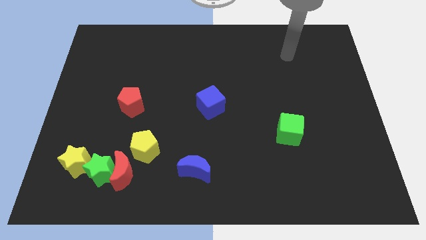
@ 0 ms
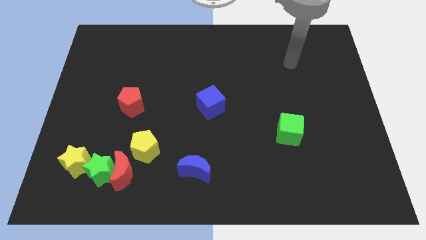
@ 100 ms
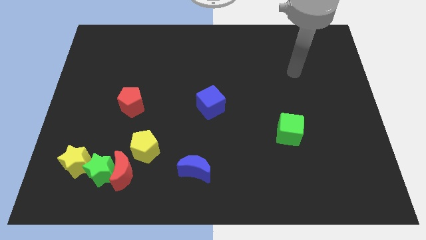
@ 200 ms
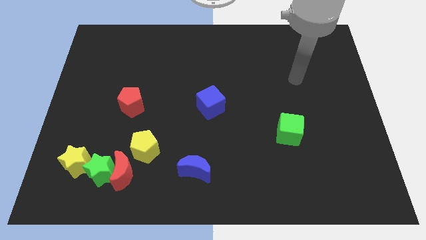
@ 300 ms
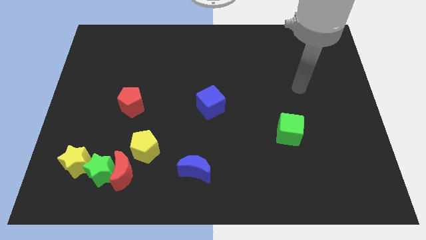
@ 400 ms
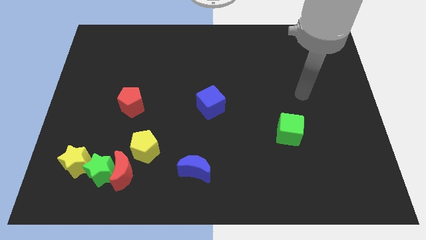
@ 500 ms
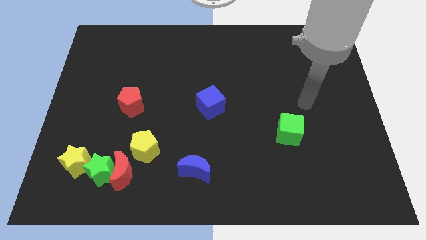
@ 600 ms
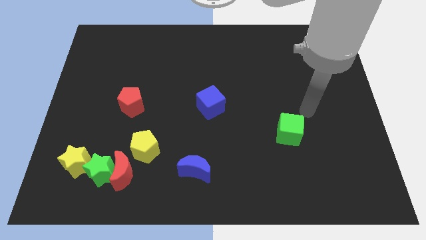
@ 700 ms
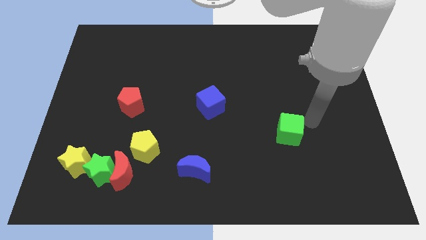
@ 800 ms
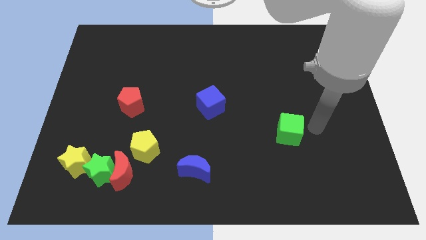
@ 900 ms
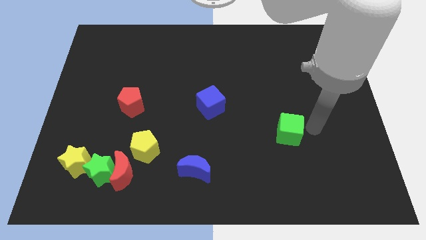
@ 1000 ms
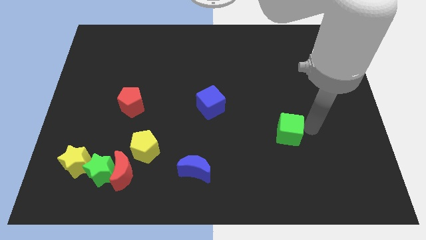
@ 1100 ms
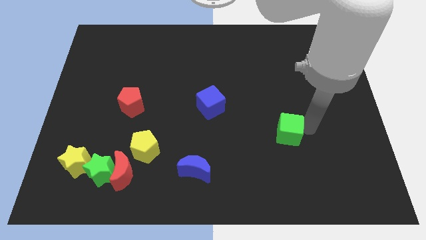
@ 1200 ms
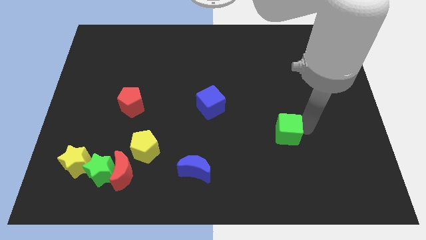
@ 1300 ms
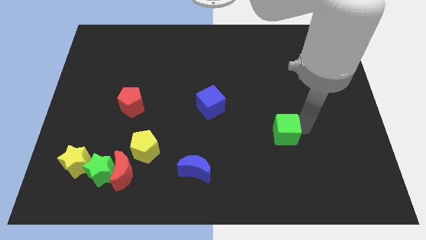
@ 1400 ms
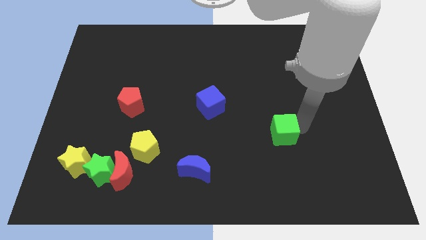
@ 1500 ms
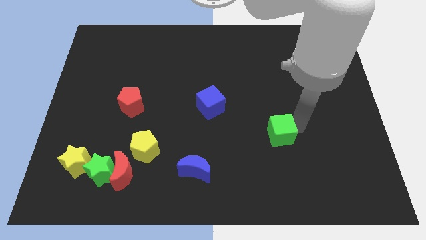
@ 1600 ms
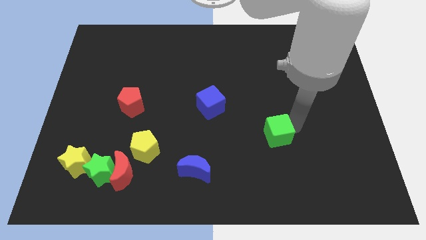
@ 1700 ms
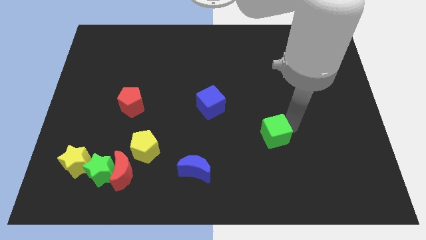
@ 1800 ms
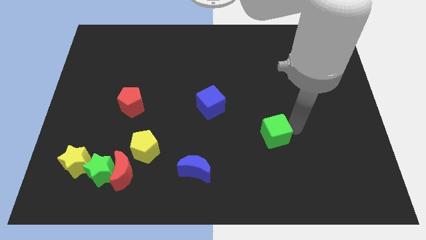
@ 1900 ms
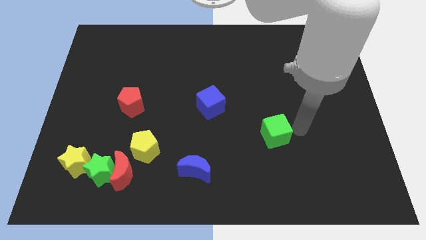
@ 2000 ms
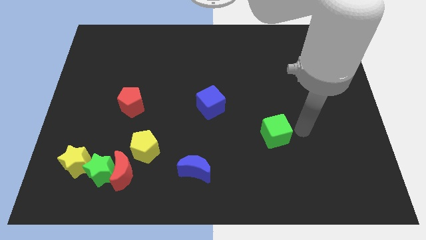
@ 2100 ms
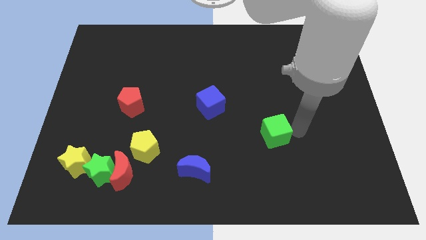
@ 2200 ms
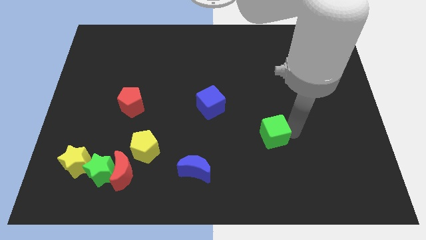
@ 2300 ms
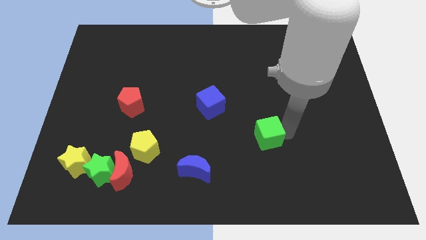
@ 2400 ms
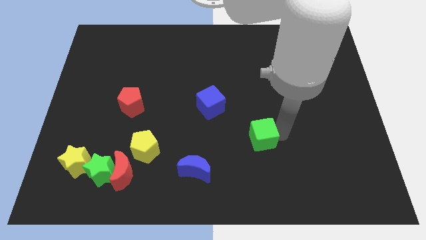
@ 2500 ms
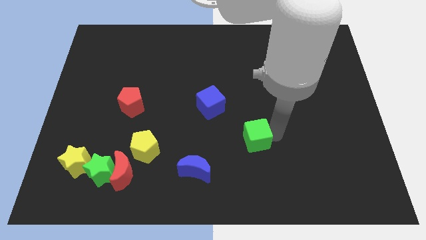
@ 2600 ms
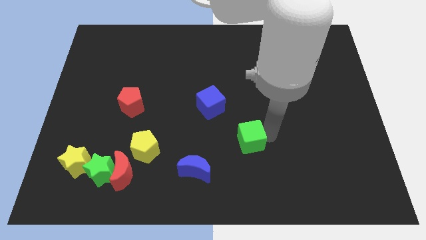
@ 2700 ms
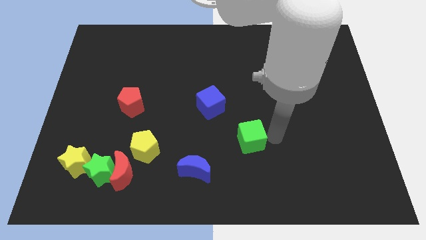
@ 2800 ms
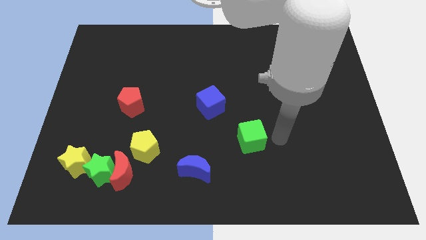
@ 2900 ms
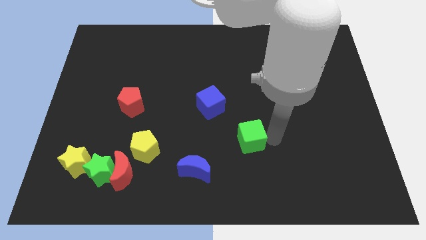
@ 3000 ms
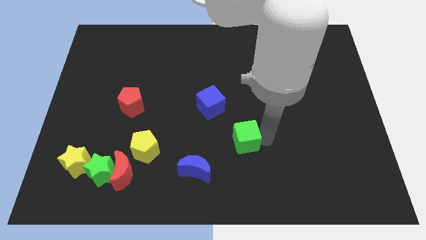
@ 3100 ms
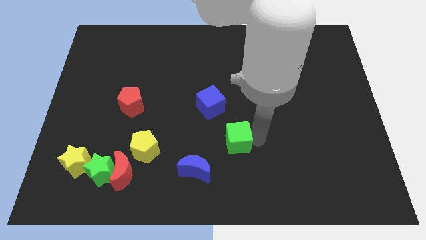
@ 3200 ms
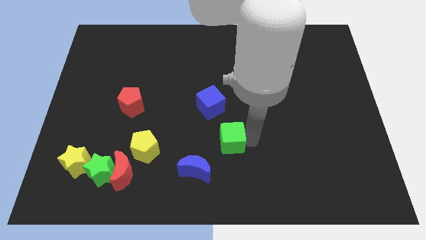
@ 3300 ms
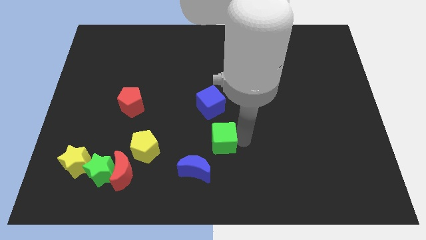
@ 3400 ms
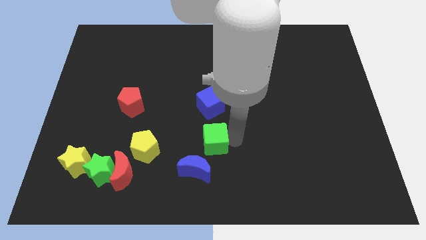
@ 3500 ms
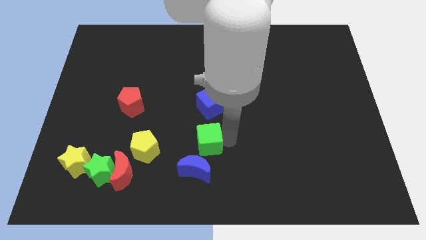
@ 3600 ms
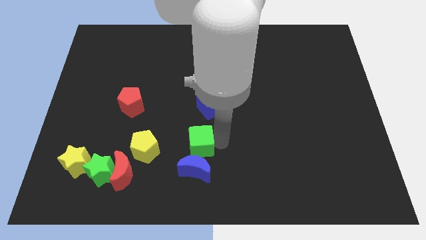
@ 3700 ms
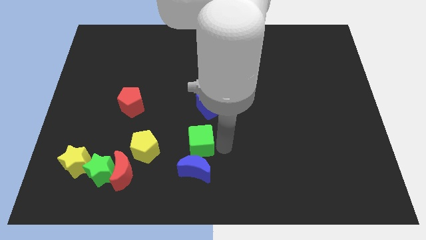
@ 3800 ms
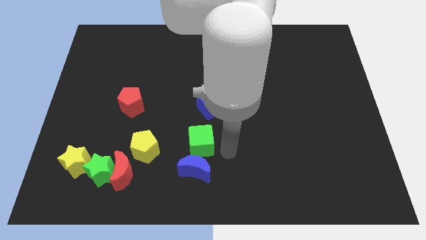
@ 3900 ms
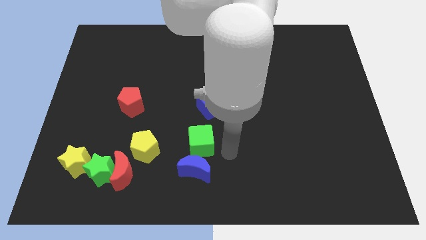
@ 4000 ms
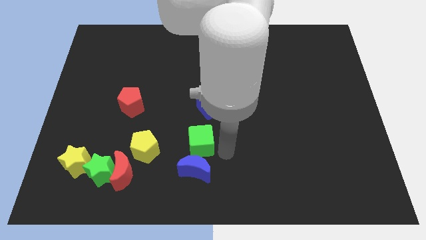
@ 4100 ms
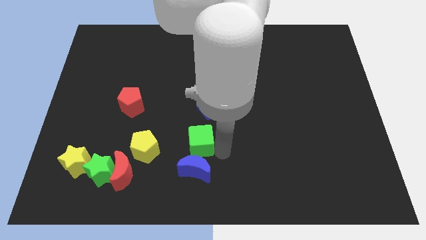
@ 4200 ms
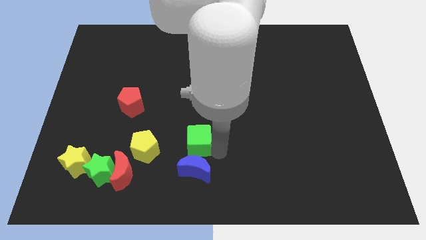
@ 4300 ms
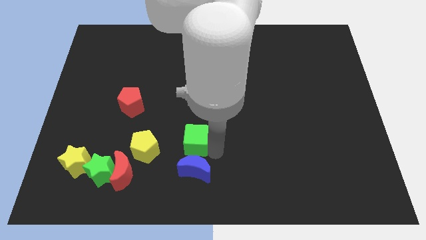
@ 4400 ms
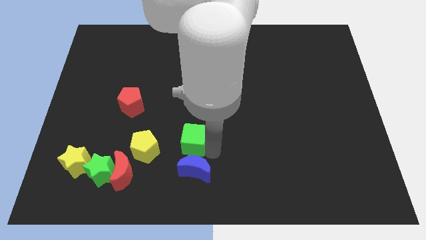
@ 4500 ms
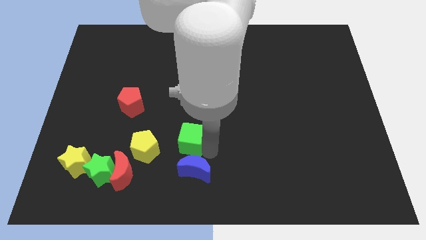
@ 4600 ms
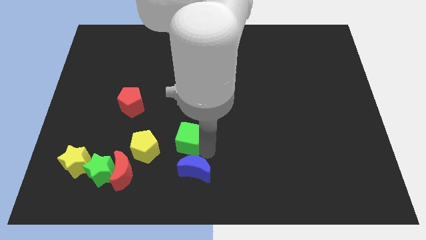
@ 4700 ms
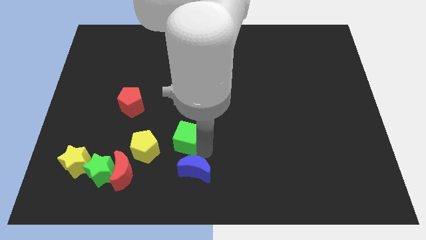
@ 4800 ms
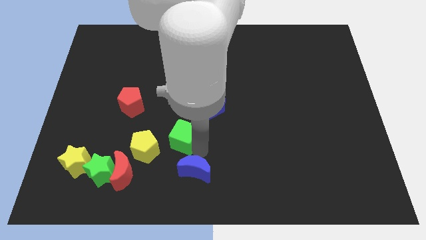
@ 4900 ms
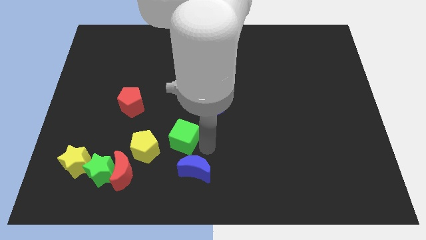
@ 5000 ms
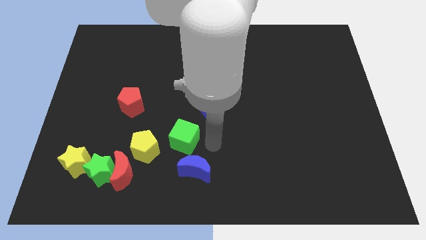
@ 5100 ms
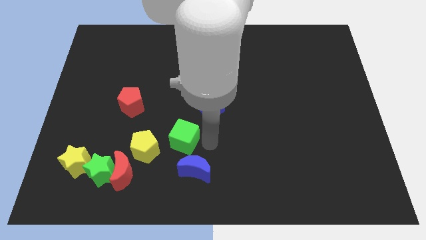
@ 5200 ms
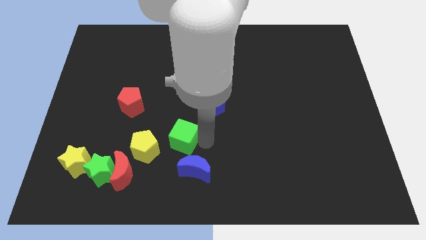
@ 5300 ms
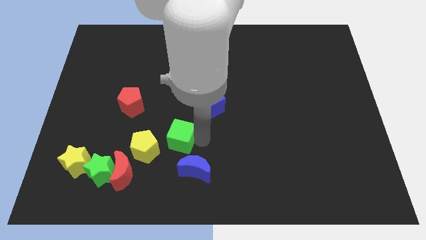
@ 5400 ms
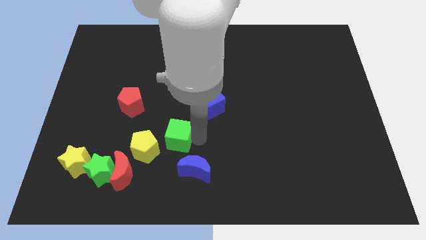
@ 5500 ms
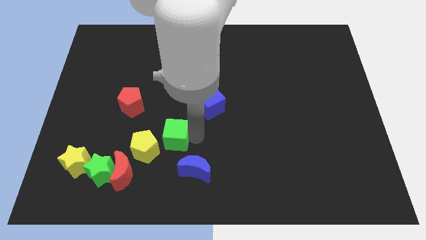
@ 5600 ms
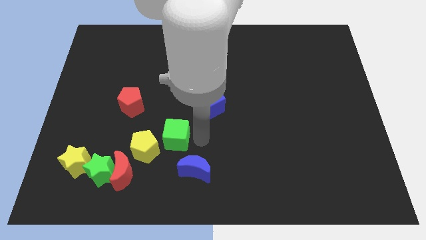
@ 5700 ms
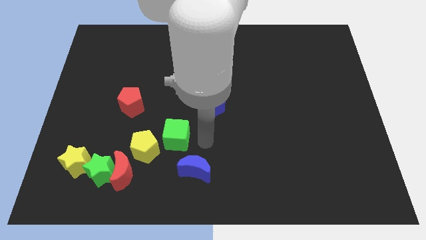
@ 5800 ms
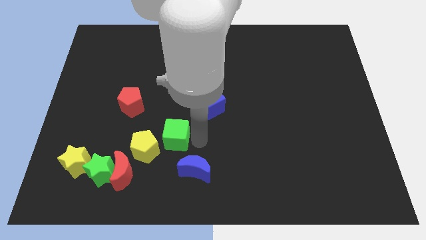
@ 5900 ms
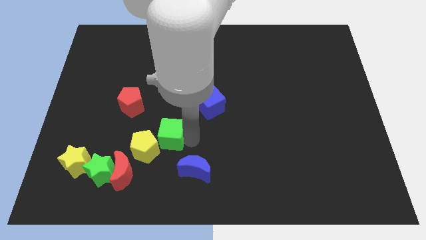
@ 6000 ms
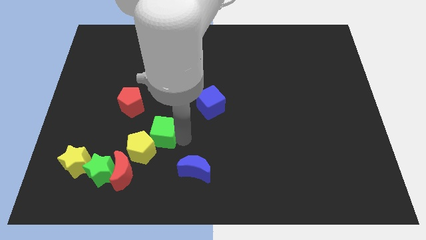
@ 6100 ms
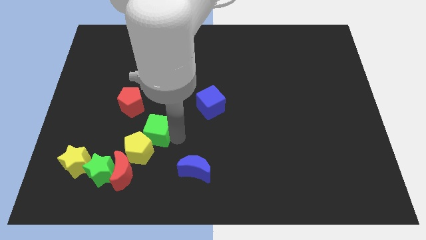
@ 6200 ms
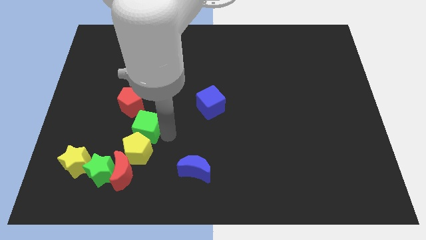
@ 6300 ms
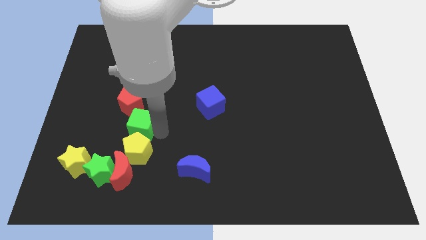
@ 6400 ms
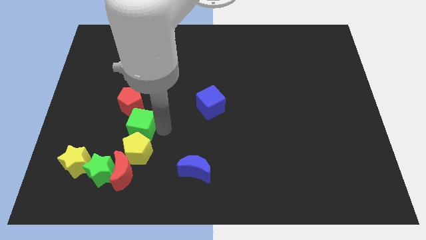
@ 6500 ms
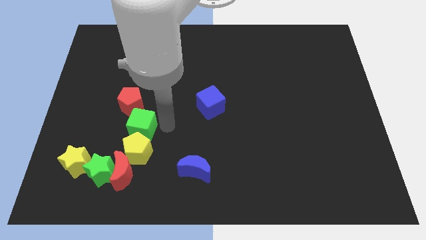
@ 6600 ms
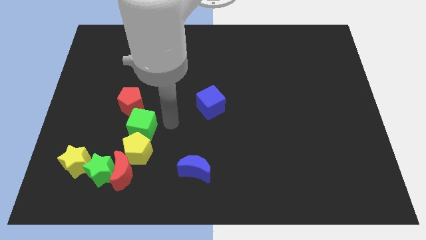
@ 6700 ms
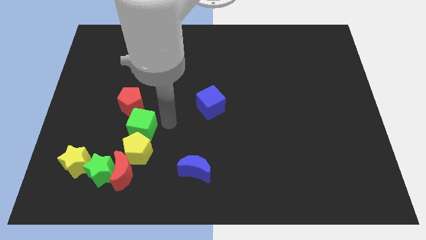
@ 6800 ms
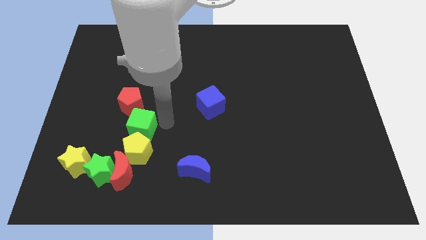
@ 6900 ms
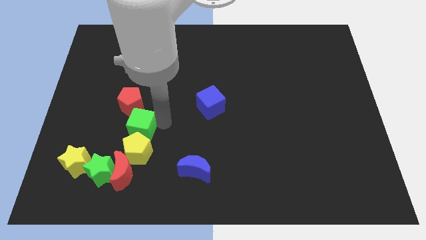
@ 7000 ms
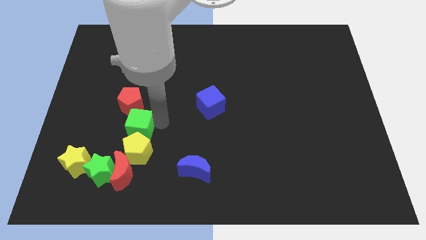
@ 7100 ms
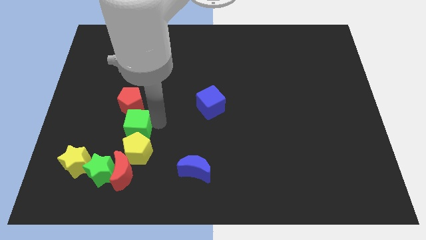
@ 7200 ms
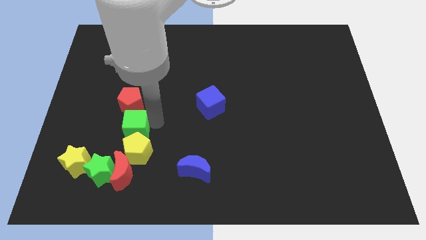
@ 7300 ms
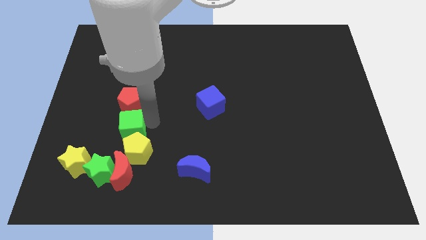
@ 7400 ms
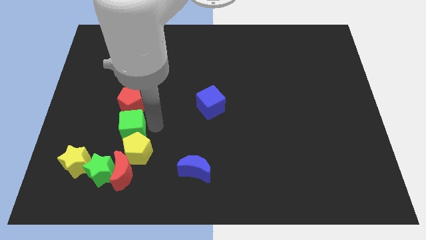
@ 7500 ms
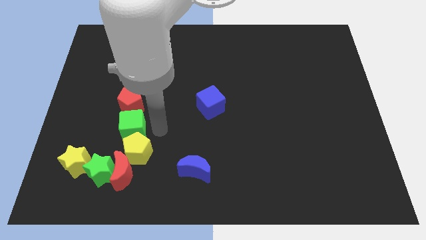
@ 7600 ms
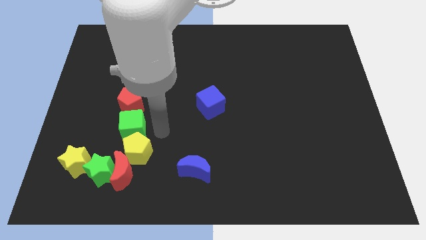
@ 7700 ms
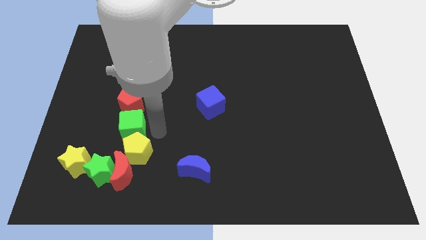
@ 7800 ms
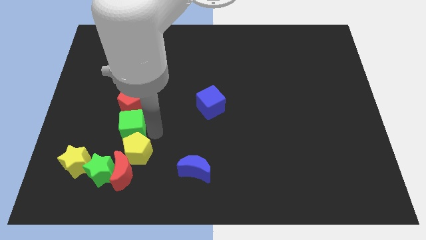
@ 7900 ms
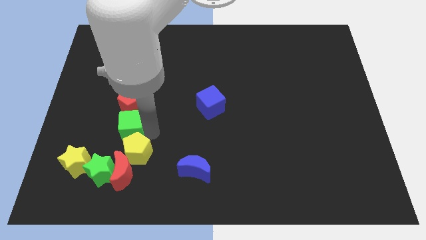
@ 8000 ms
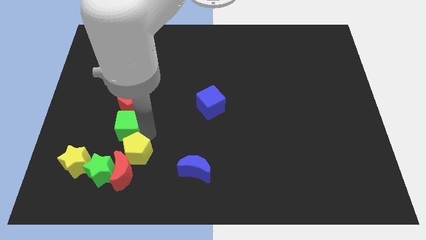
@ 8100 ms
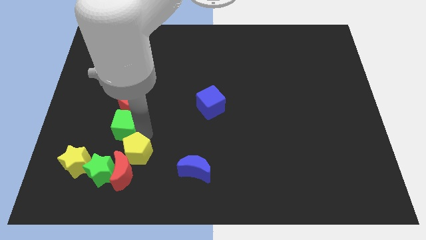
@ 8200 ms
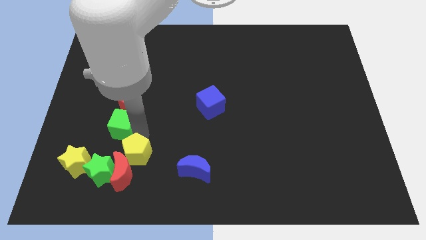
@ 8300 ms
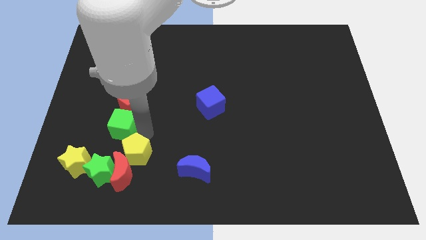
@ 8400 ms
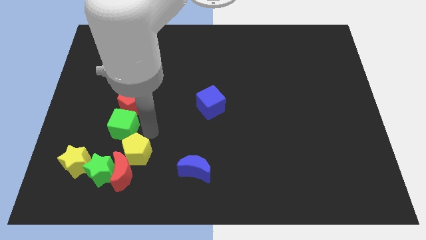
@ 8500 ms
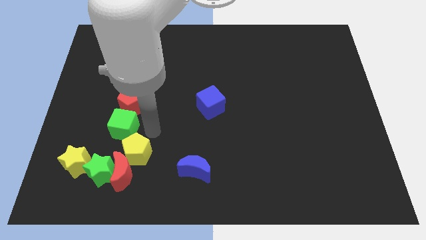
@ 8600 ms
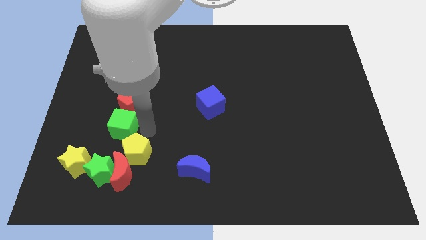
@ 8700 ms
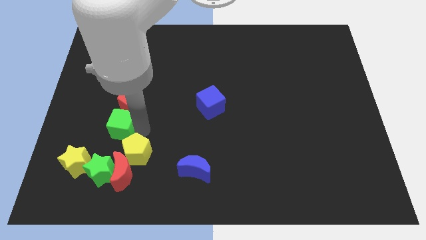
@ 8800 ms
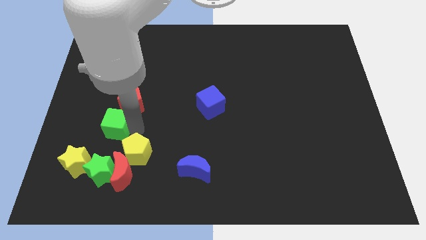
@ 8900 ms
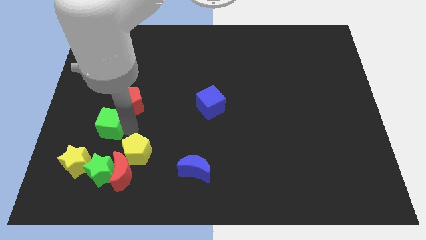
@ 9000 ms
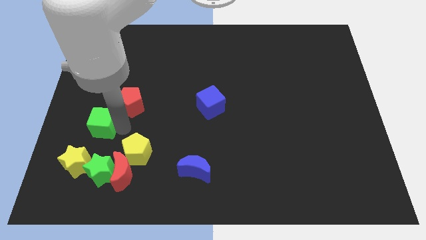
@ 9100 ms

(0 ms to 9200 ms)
move the green cube to the top side of the yellow star
